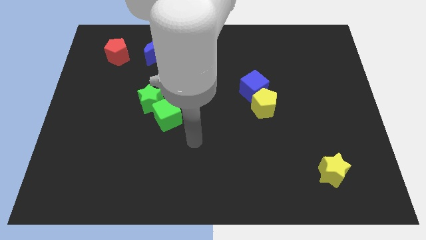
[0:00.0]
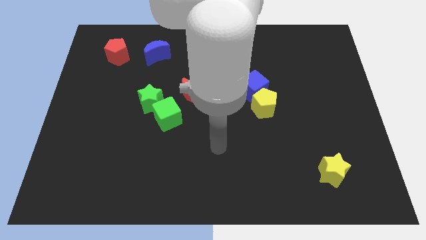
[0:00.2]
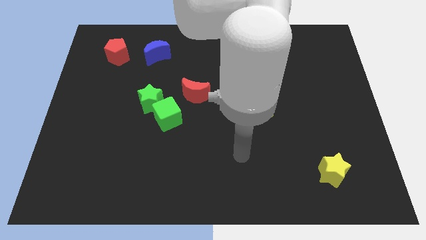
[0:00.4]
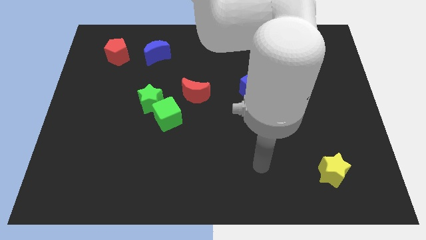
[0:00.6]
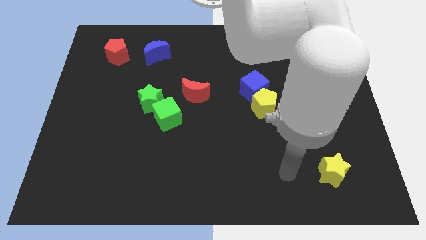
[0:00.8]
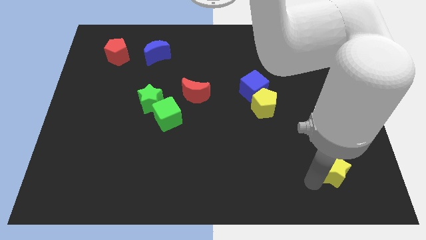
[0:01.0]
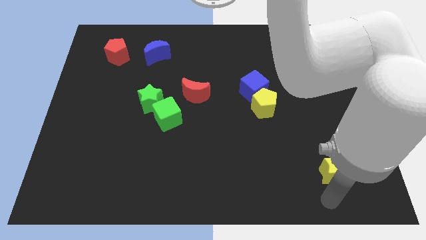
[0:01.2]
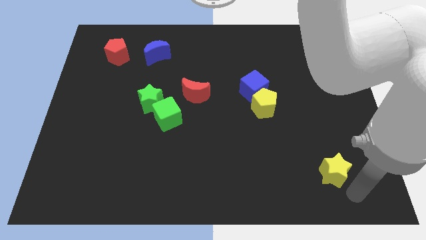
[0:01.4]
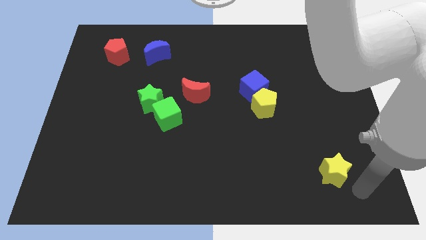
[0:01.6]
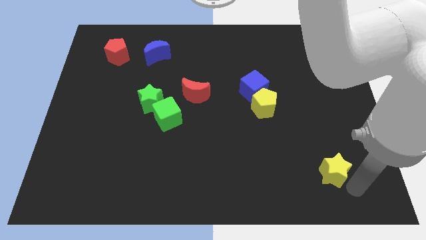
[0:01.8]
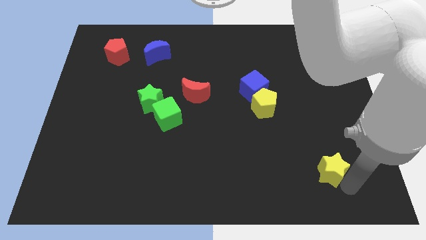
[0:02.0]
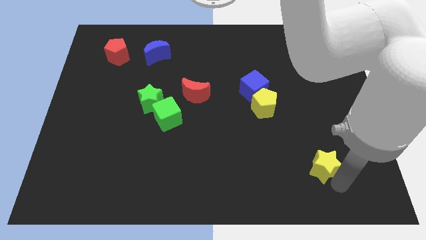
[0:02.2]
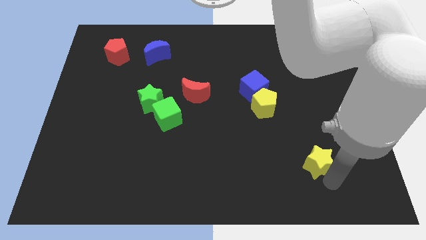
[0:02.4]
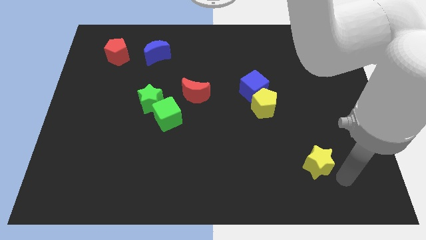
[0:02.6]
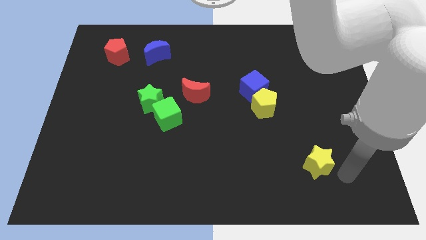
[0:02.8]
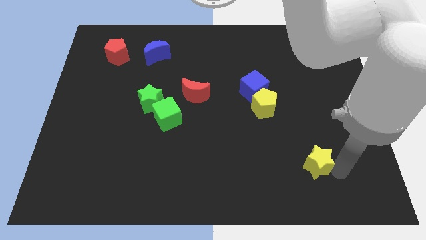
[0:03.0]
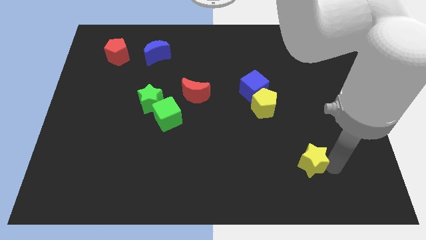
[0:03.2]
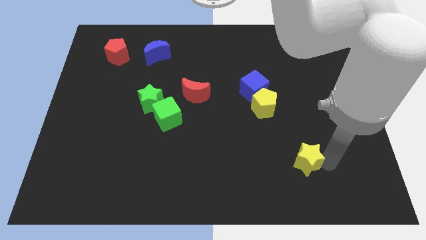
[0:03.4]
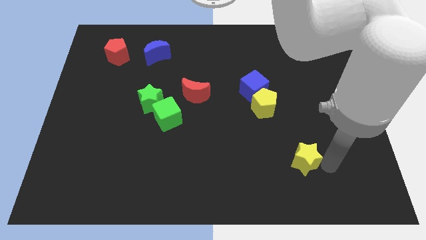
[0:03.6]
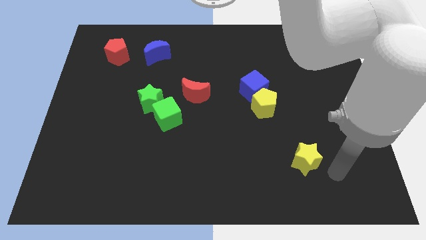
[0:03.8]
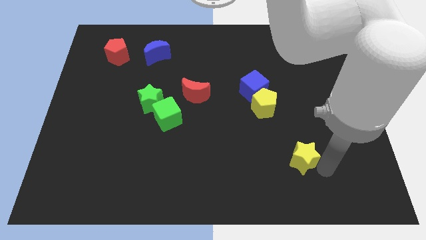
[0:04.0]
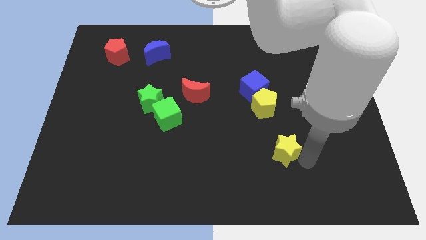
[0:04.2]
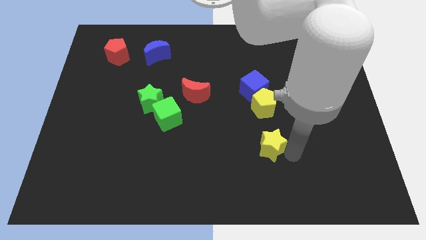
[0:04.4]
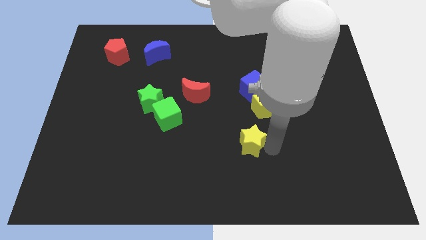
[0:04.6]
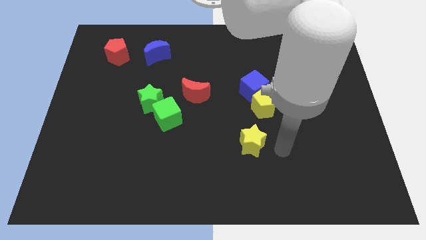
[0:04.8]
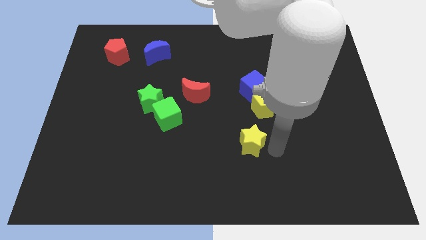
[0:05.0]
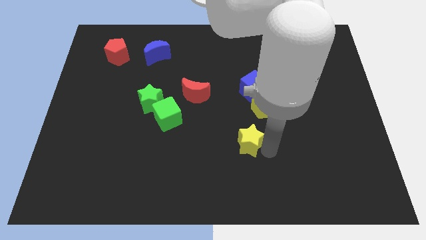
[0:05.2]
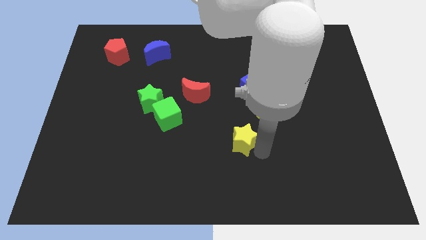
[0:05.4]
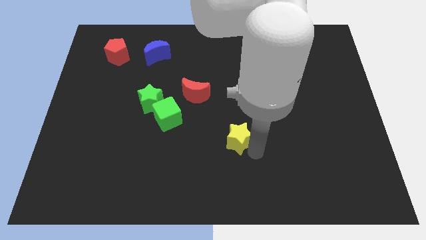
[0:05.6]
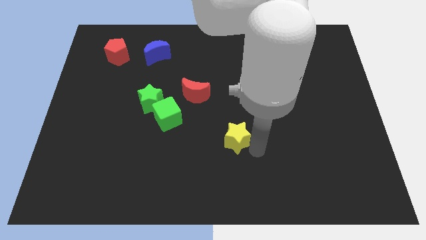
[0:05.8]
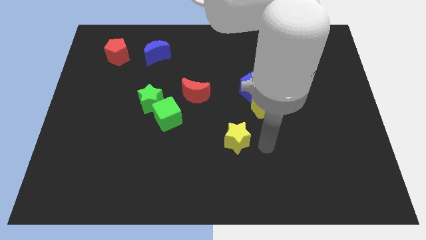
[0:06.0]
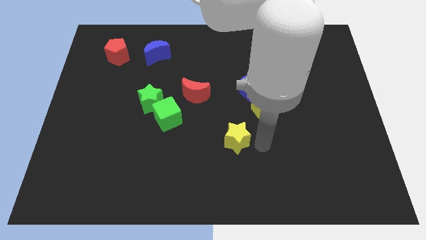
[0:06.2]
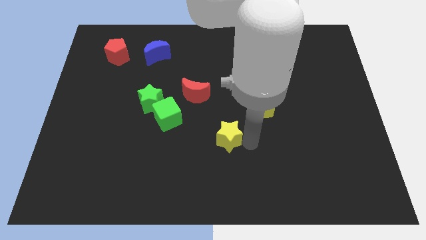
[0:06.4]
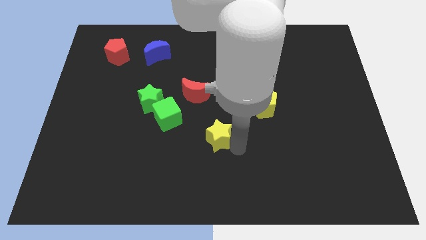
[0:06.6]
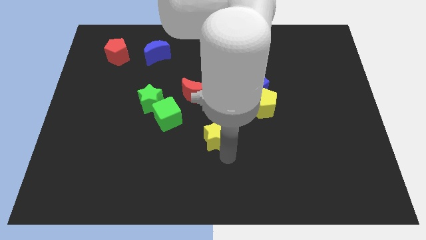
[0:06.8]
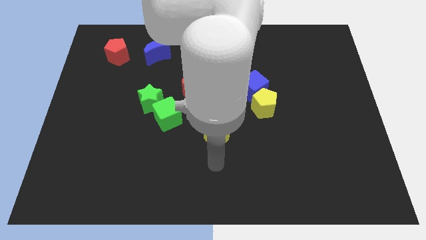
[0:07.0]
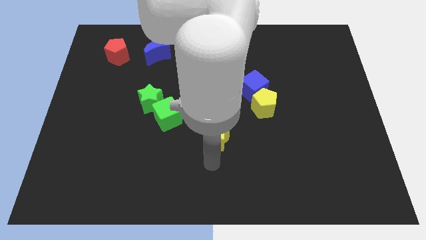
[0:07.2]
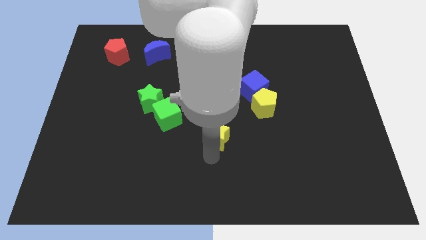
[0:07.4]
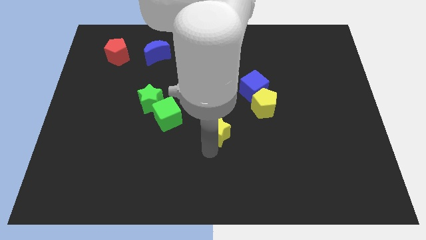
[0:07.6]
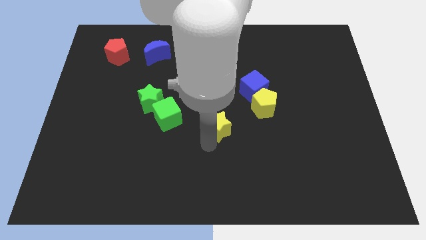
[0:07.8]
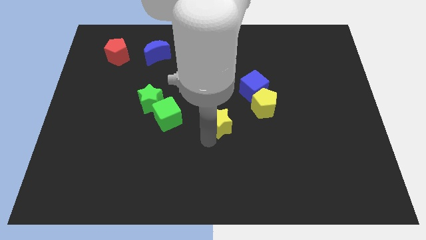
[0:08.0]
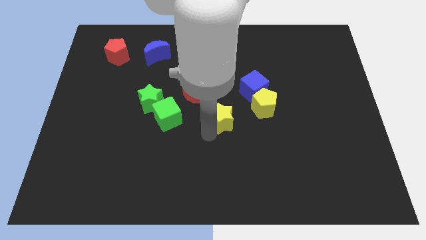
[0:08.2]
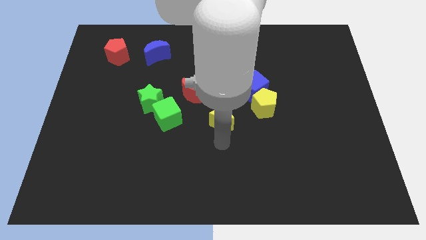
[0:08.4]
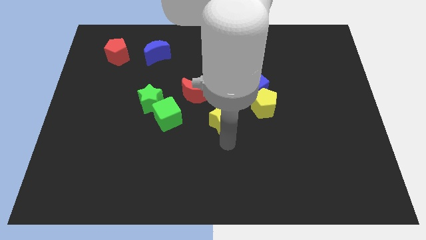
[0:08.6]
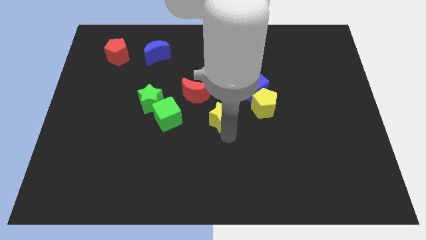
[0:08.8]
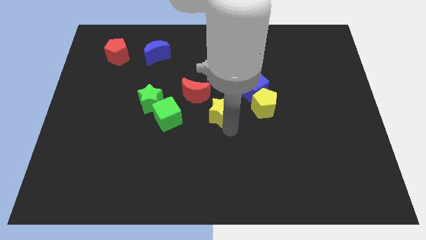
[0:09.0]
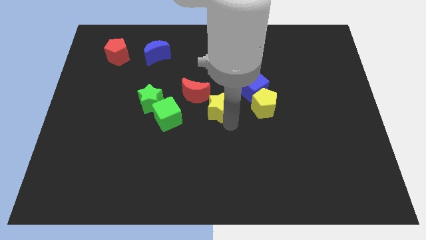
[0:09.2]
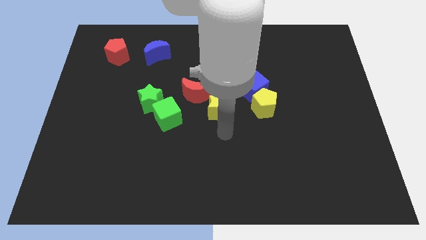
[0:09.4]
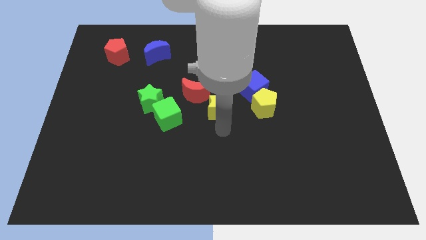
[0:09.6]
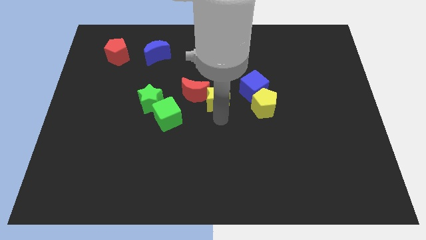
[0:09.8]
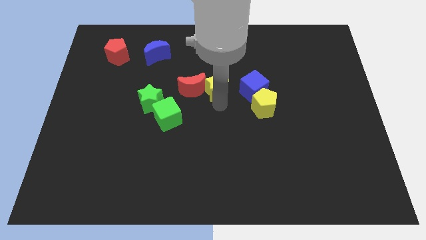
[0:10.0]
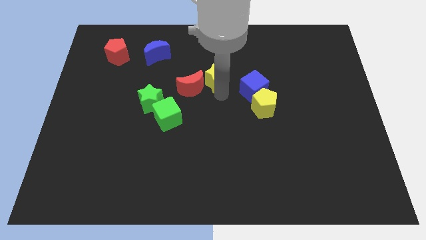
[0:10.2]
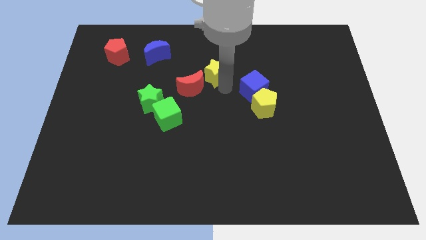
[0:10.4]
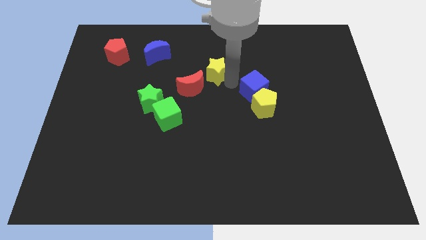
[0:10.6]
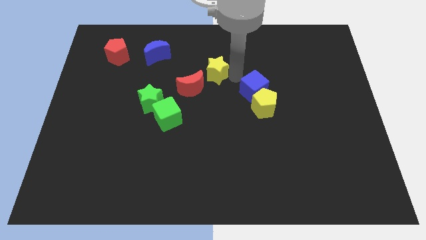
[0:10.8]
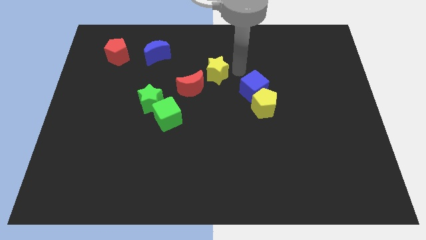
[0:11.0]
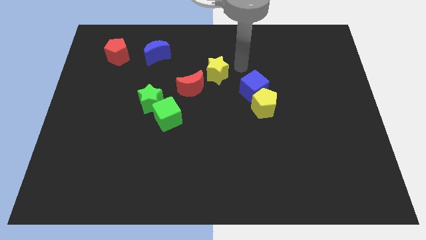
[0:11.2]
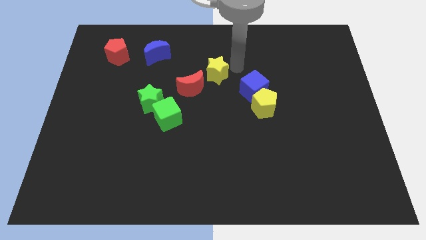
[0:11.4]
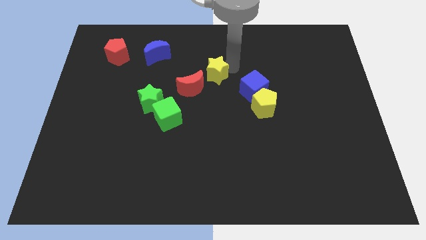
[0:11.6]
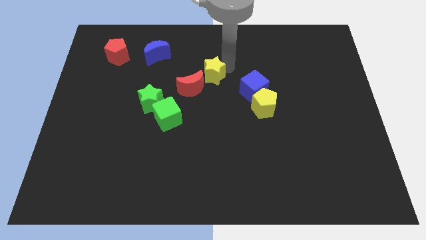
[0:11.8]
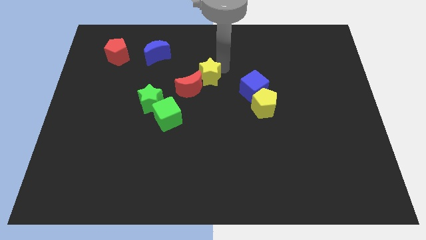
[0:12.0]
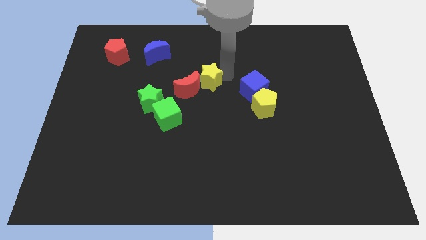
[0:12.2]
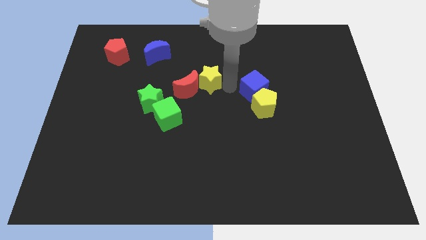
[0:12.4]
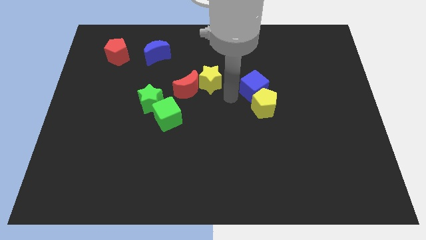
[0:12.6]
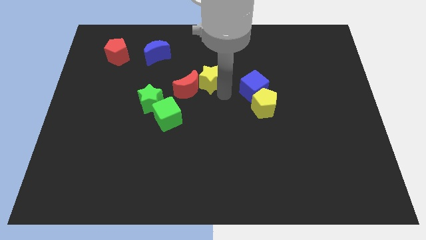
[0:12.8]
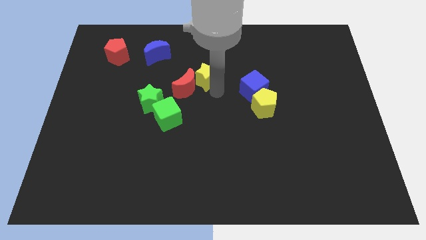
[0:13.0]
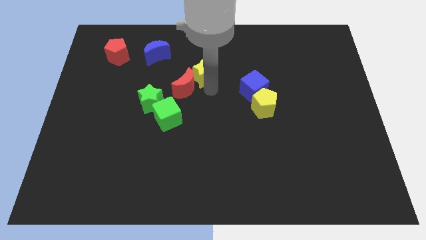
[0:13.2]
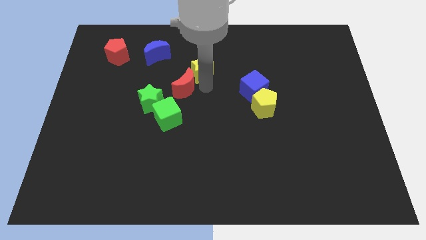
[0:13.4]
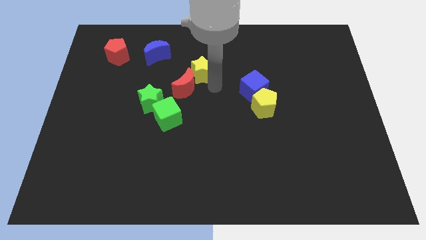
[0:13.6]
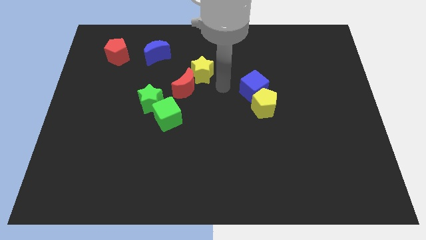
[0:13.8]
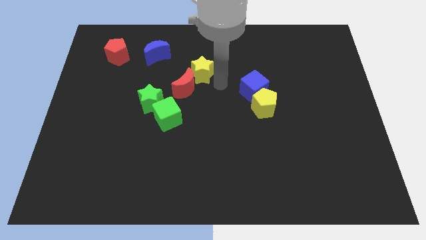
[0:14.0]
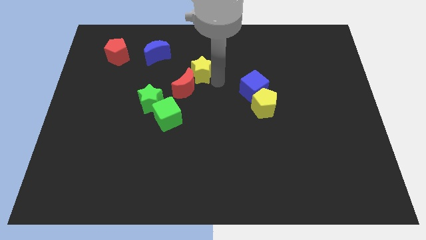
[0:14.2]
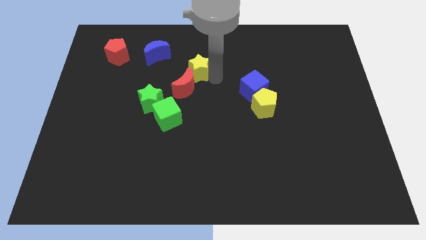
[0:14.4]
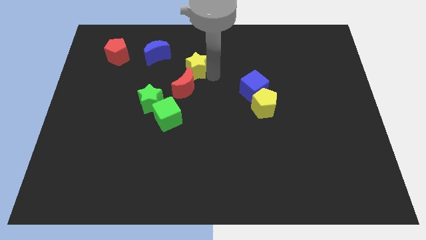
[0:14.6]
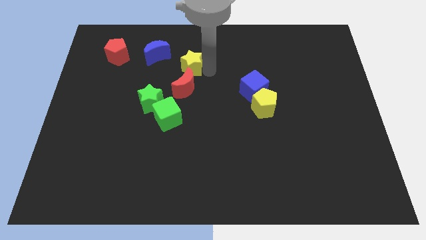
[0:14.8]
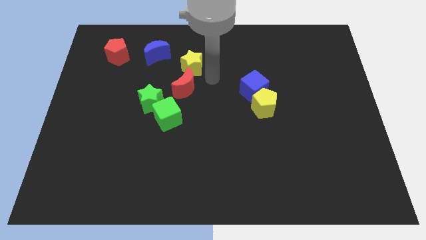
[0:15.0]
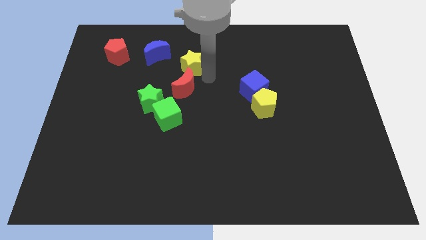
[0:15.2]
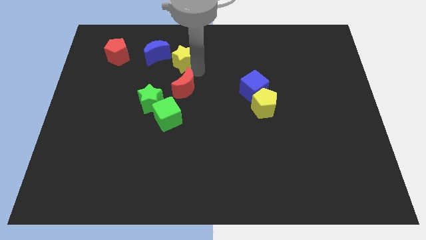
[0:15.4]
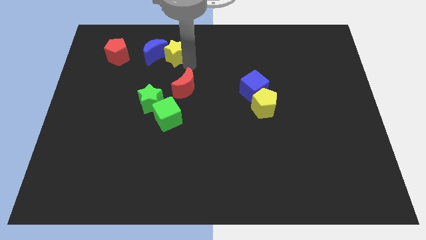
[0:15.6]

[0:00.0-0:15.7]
move the yellow star to the right of the red pentagon
